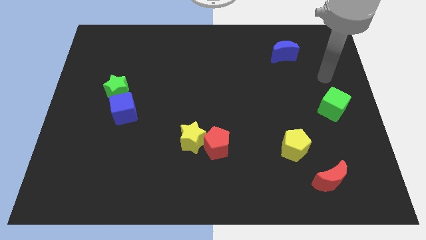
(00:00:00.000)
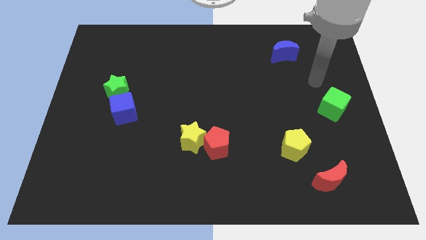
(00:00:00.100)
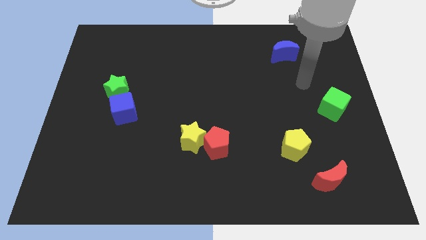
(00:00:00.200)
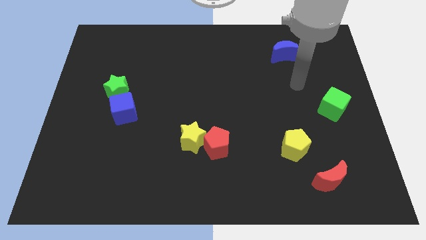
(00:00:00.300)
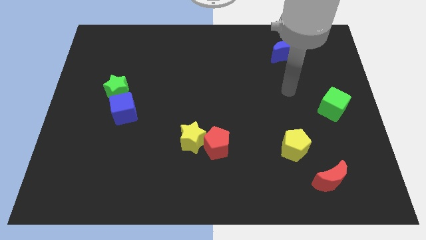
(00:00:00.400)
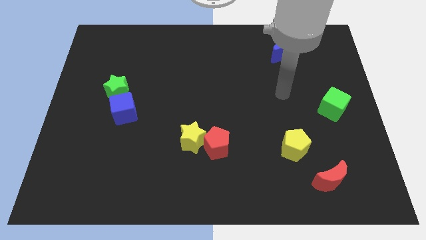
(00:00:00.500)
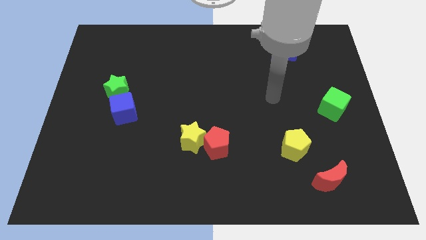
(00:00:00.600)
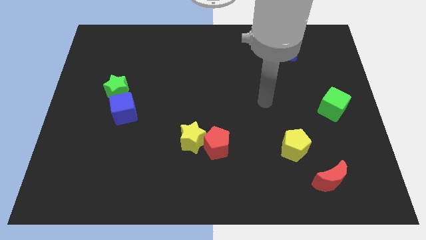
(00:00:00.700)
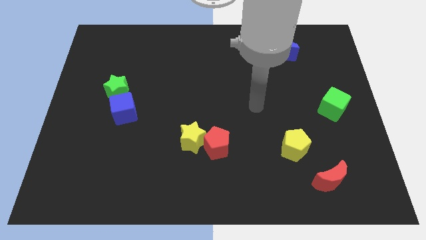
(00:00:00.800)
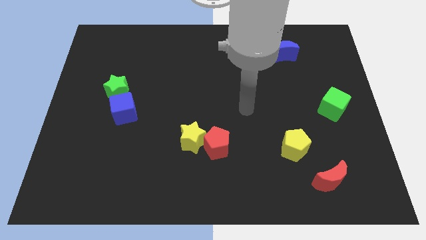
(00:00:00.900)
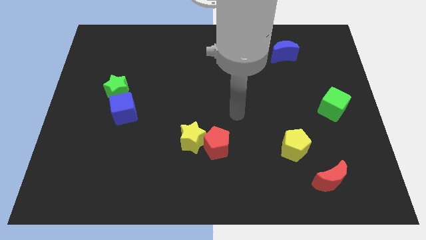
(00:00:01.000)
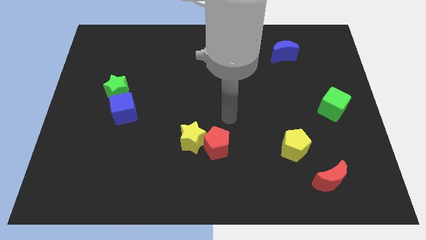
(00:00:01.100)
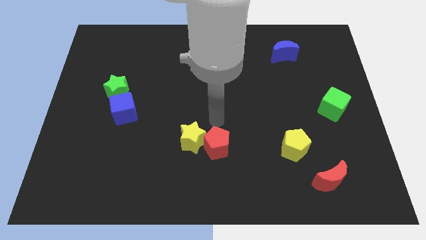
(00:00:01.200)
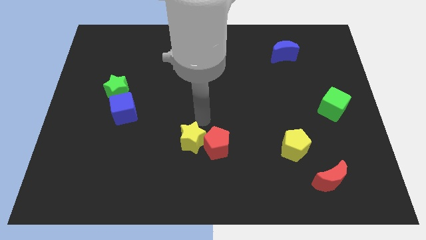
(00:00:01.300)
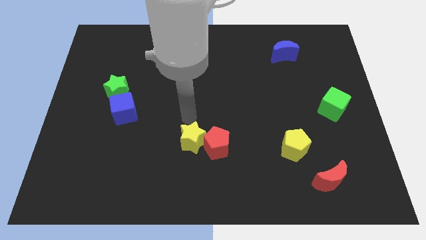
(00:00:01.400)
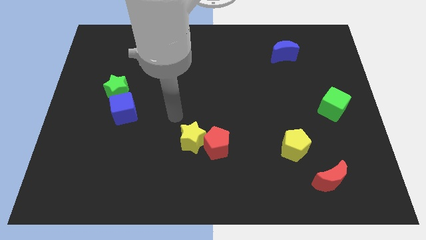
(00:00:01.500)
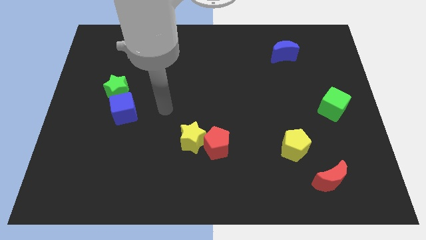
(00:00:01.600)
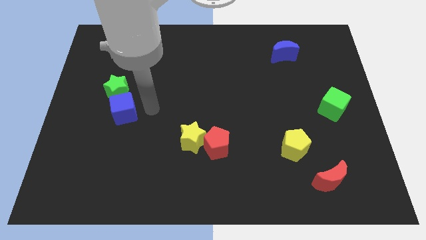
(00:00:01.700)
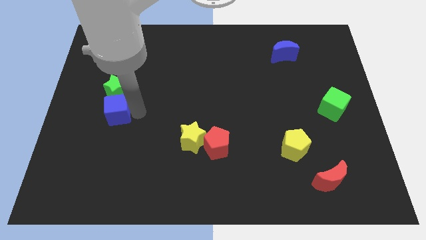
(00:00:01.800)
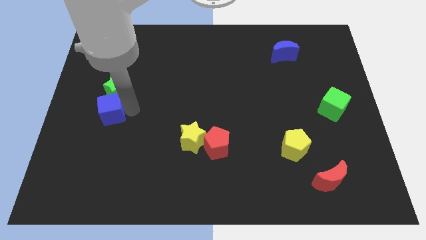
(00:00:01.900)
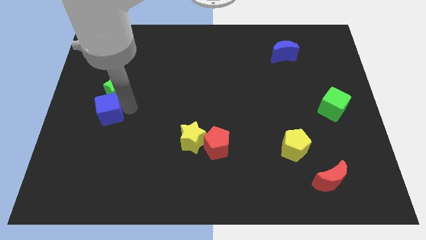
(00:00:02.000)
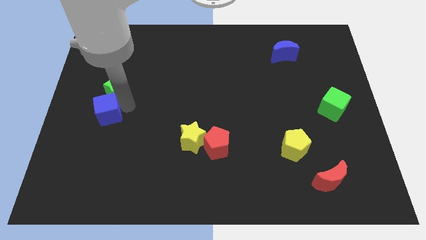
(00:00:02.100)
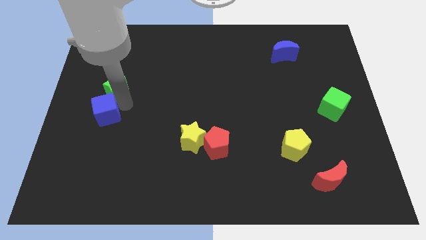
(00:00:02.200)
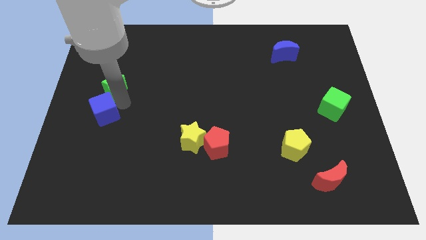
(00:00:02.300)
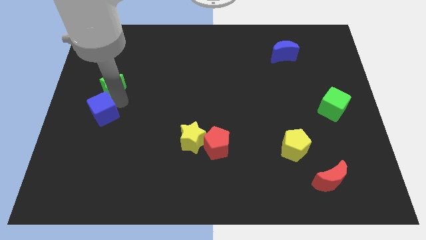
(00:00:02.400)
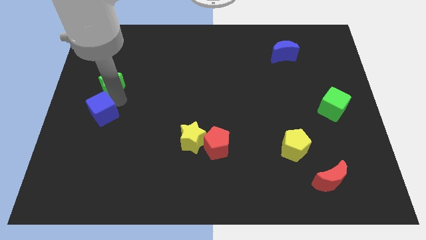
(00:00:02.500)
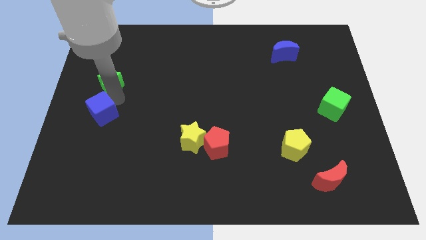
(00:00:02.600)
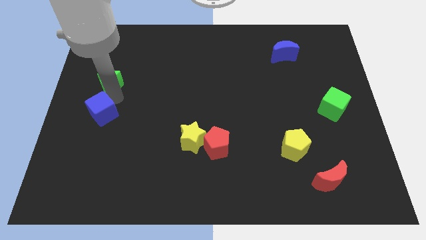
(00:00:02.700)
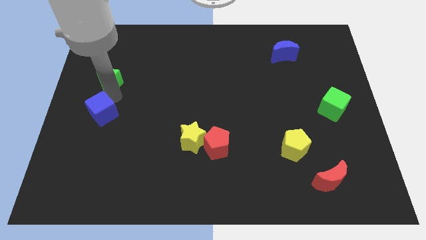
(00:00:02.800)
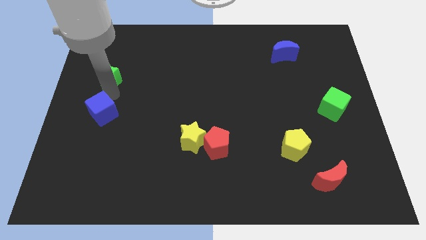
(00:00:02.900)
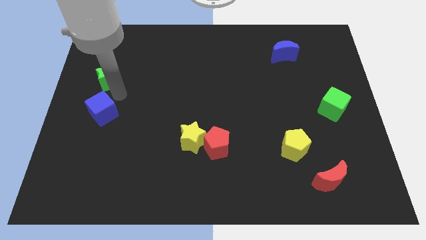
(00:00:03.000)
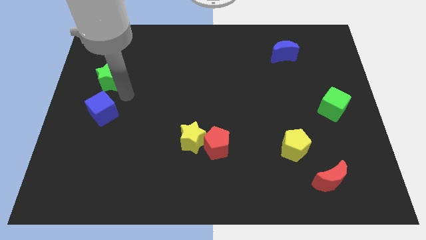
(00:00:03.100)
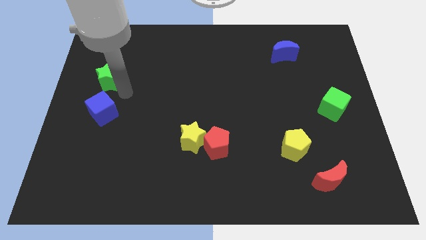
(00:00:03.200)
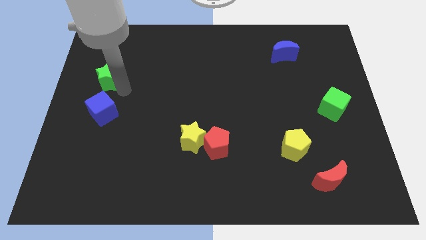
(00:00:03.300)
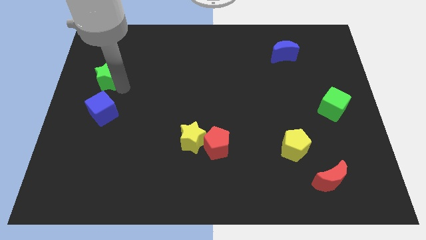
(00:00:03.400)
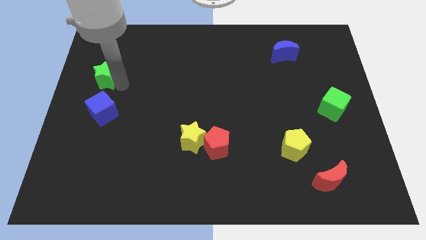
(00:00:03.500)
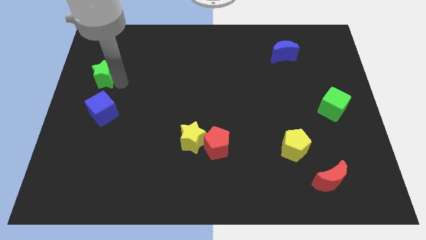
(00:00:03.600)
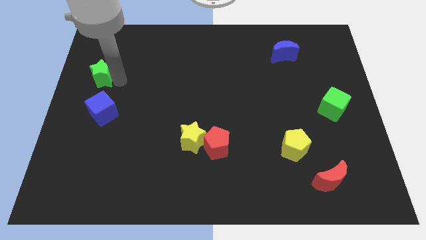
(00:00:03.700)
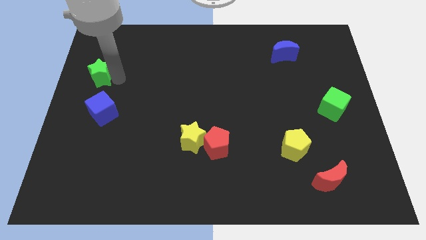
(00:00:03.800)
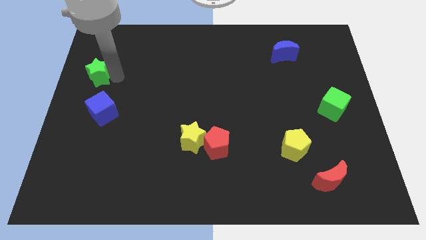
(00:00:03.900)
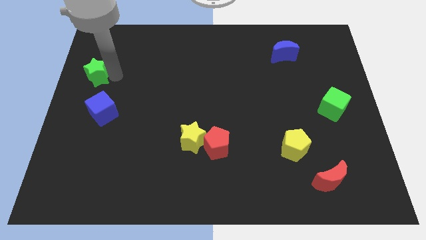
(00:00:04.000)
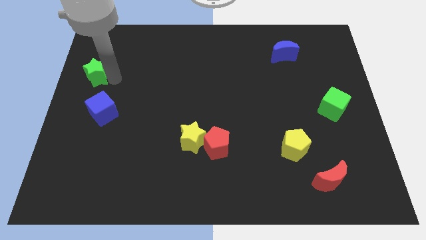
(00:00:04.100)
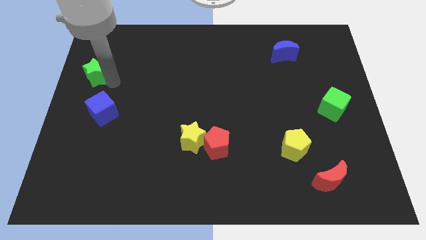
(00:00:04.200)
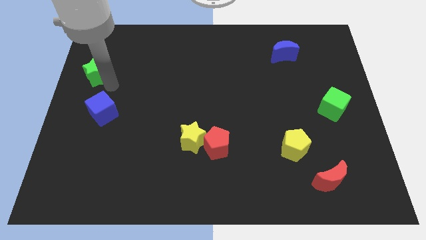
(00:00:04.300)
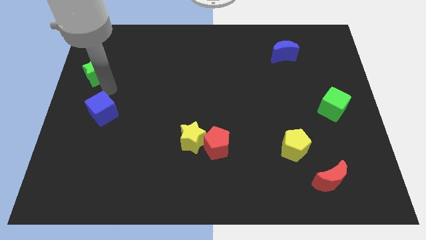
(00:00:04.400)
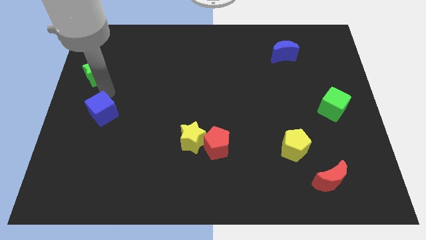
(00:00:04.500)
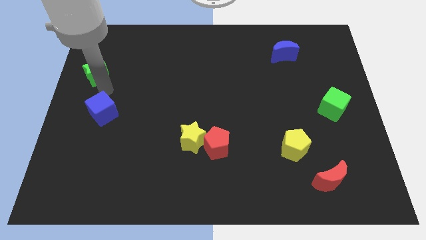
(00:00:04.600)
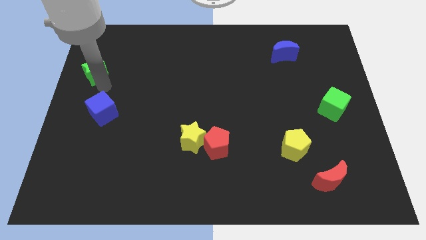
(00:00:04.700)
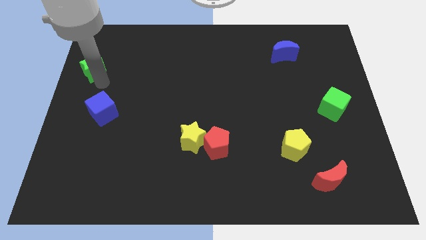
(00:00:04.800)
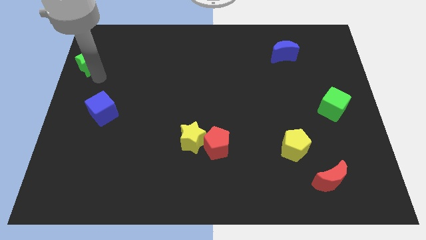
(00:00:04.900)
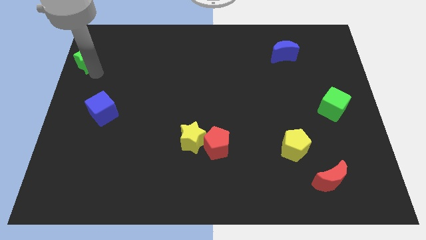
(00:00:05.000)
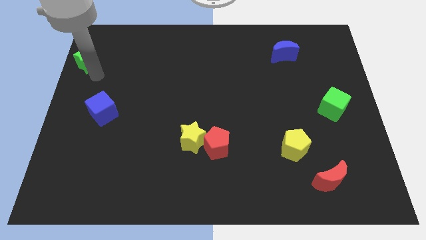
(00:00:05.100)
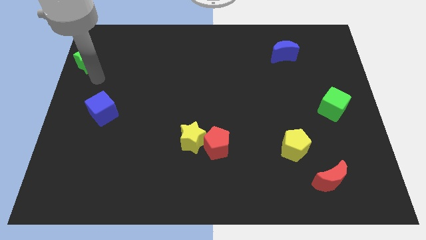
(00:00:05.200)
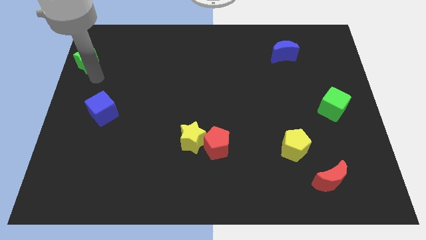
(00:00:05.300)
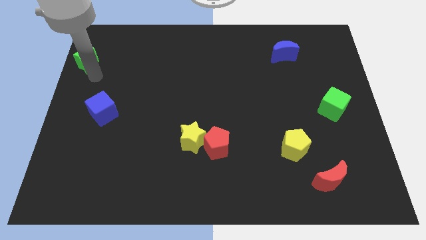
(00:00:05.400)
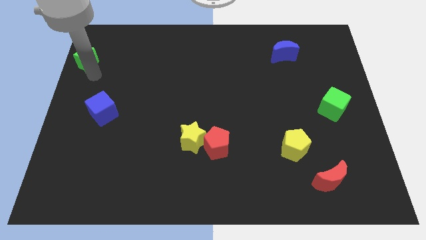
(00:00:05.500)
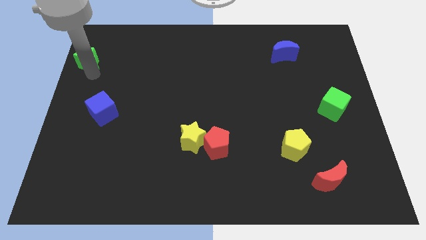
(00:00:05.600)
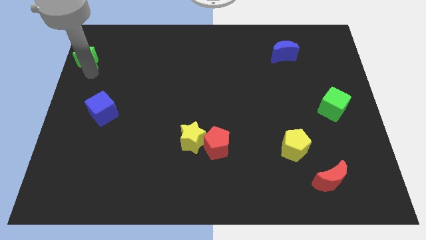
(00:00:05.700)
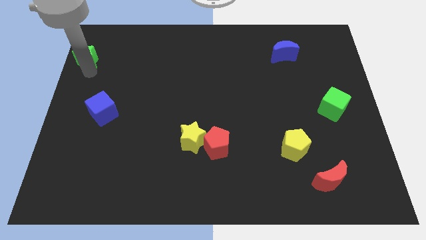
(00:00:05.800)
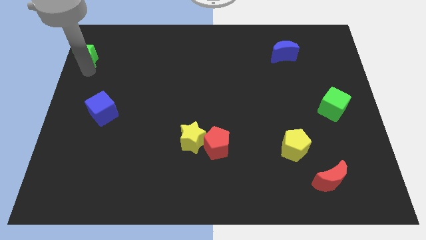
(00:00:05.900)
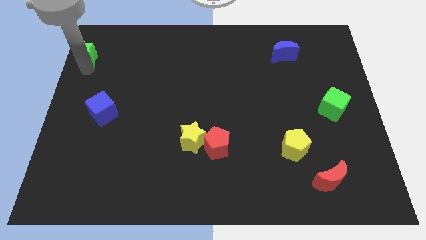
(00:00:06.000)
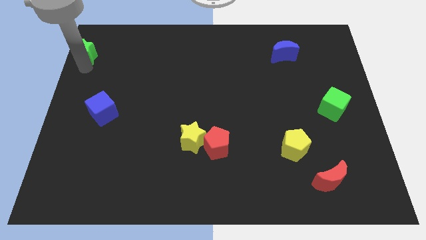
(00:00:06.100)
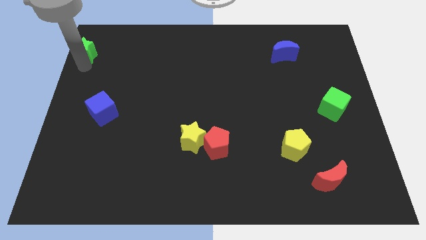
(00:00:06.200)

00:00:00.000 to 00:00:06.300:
move the green star to the top left
